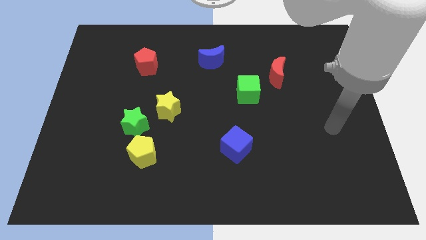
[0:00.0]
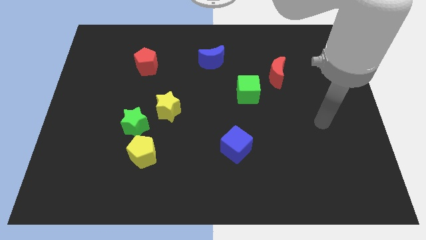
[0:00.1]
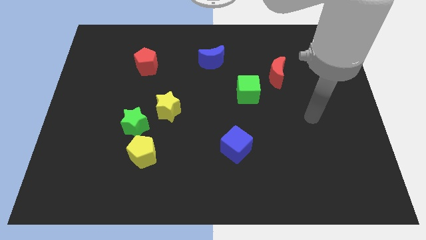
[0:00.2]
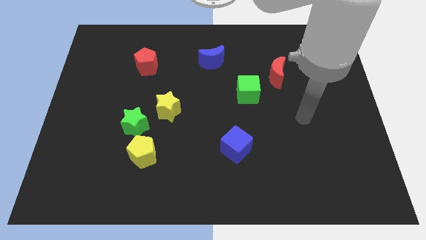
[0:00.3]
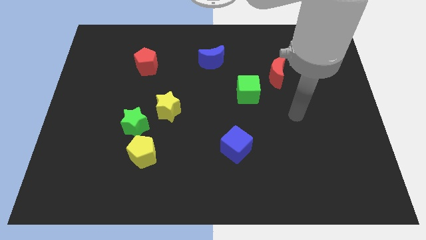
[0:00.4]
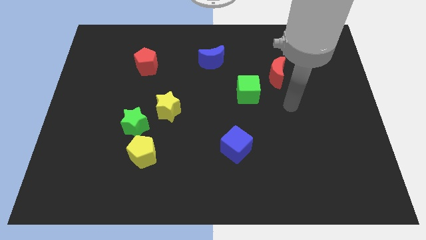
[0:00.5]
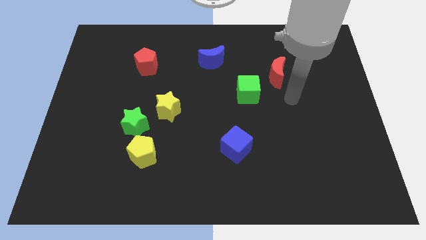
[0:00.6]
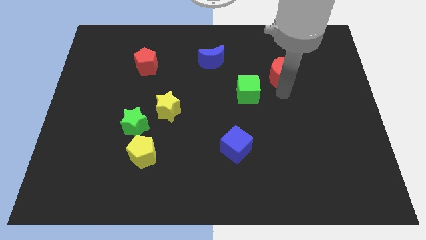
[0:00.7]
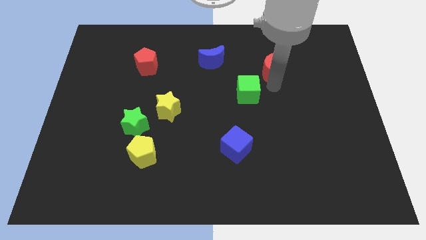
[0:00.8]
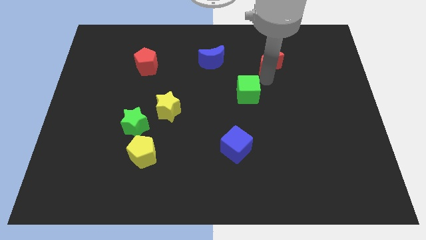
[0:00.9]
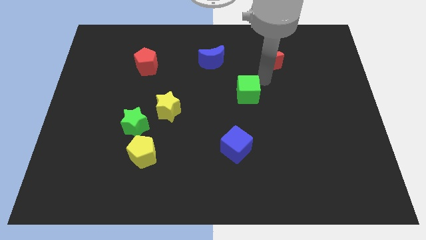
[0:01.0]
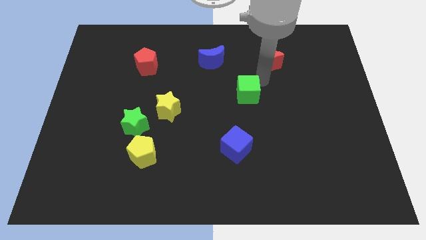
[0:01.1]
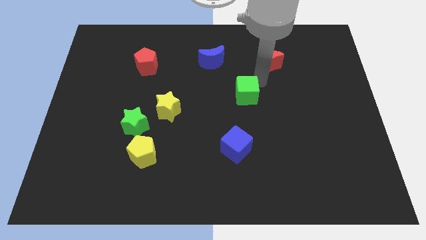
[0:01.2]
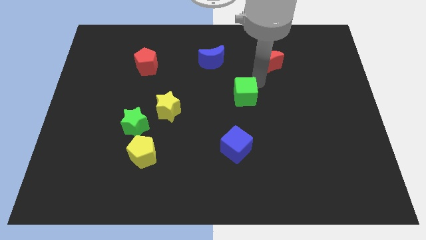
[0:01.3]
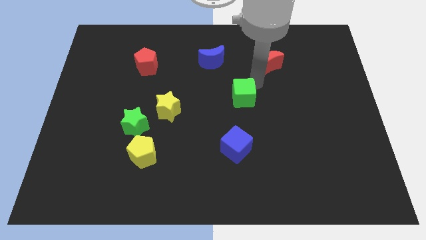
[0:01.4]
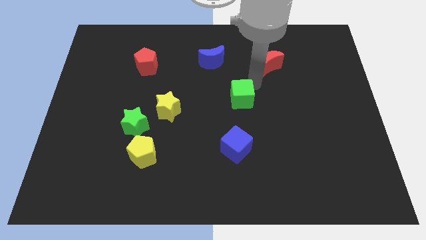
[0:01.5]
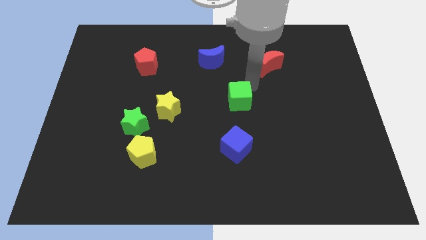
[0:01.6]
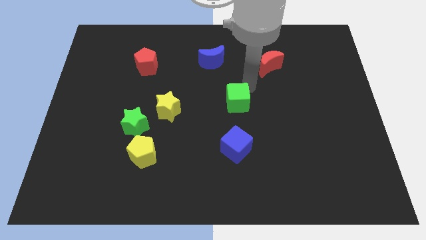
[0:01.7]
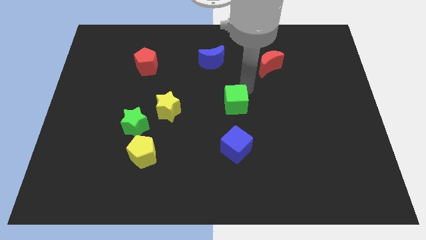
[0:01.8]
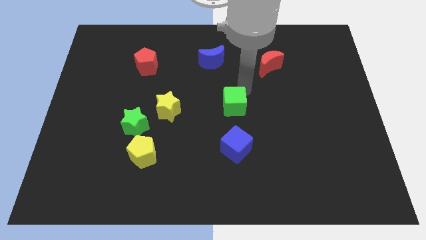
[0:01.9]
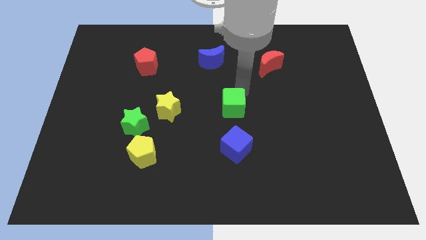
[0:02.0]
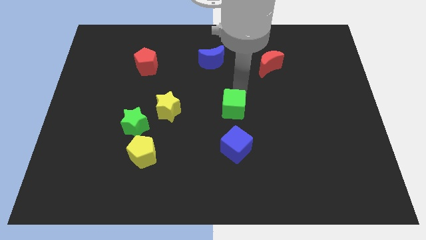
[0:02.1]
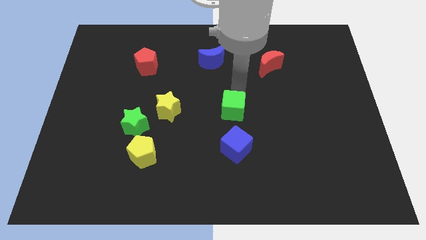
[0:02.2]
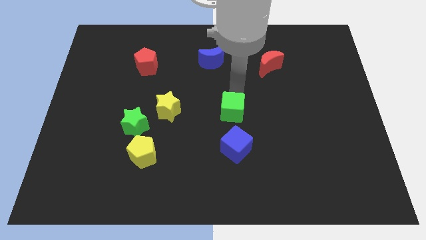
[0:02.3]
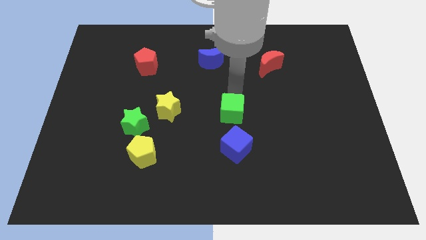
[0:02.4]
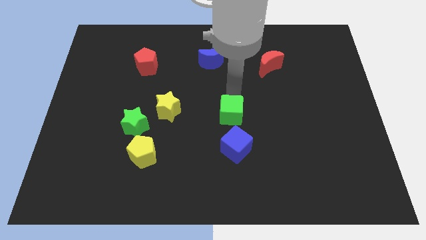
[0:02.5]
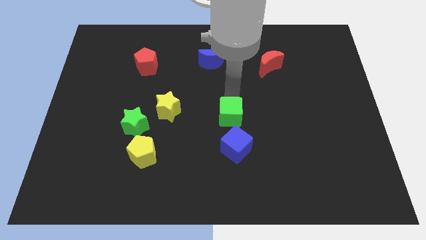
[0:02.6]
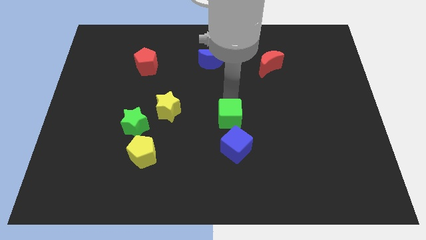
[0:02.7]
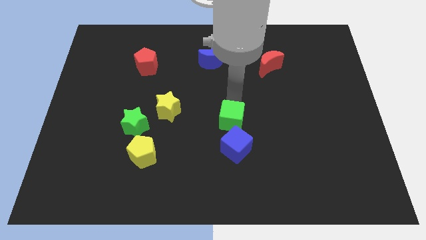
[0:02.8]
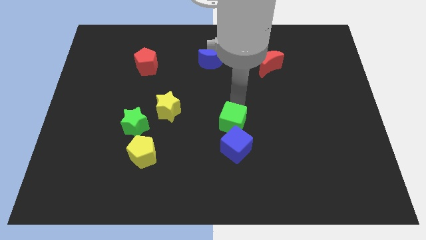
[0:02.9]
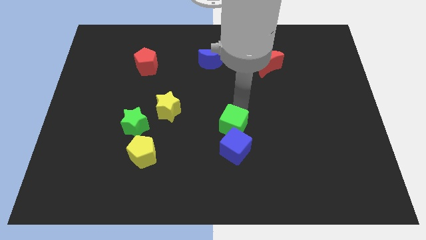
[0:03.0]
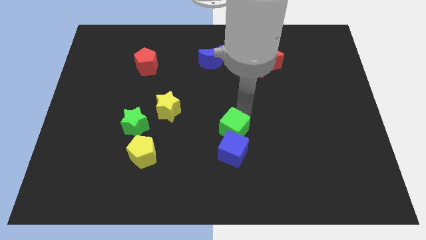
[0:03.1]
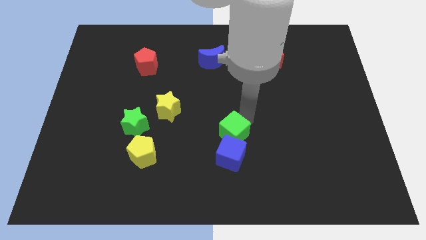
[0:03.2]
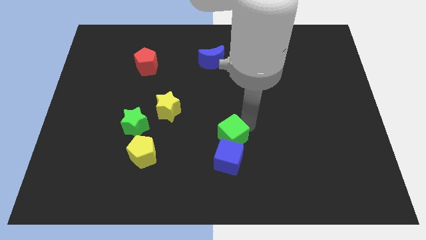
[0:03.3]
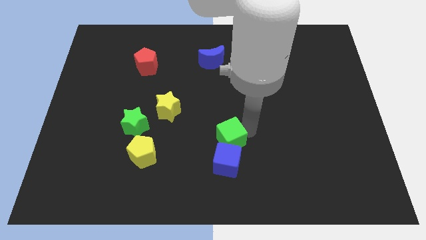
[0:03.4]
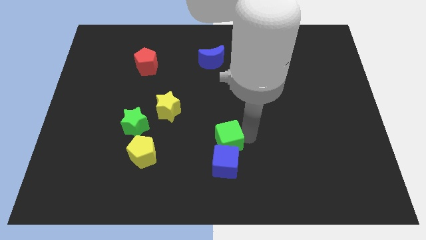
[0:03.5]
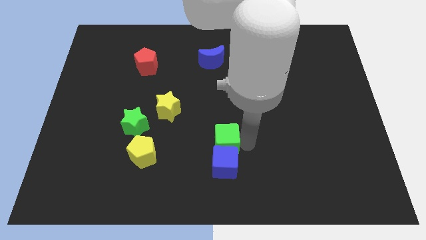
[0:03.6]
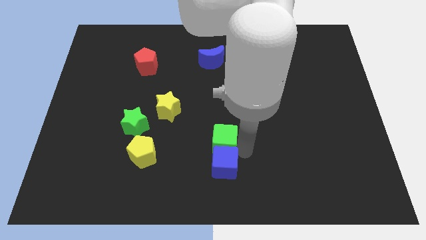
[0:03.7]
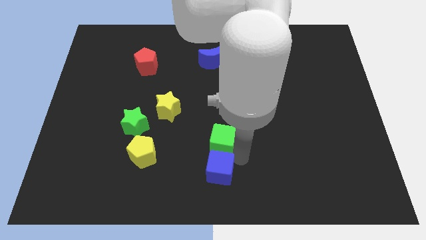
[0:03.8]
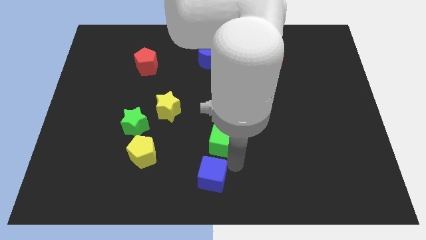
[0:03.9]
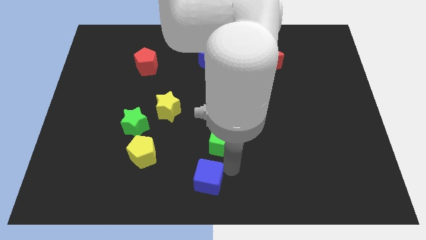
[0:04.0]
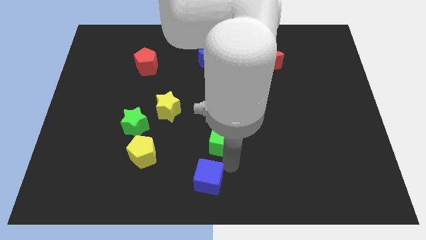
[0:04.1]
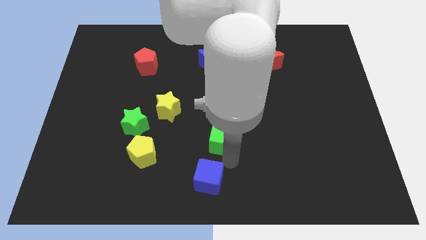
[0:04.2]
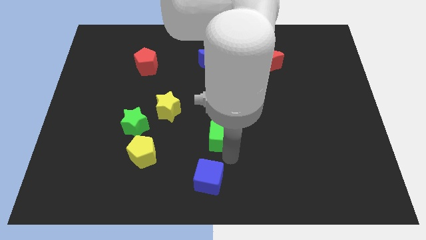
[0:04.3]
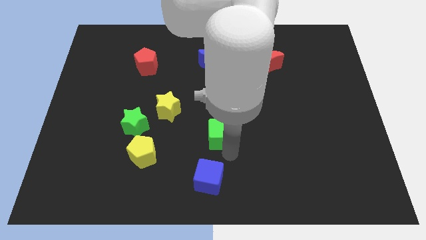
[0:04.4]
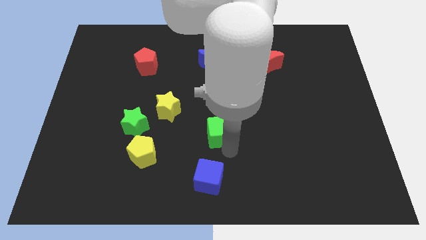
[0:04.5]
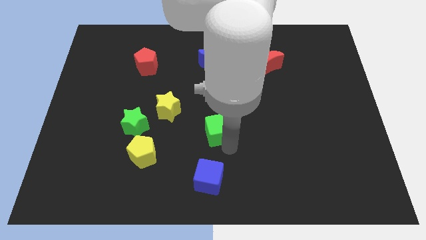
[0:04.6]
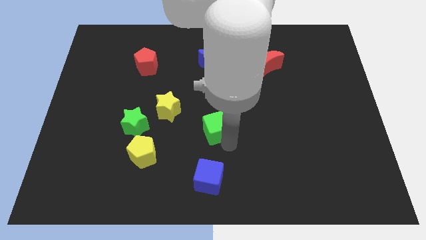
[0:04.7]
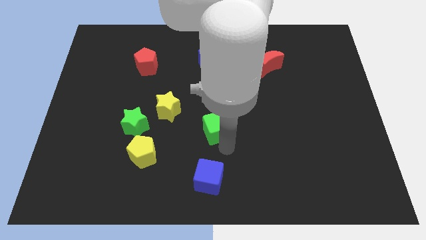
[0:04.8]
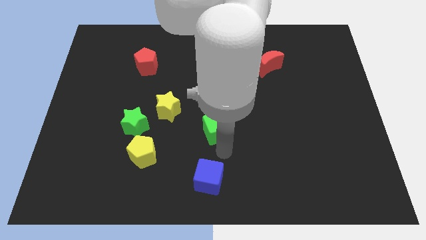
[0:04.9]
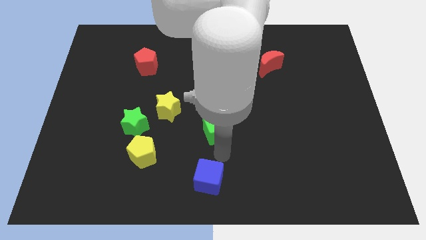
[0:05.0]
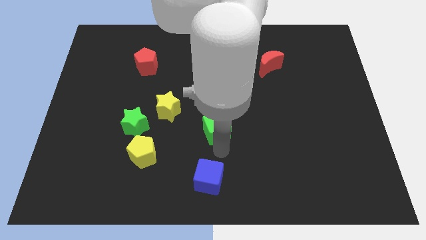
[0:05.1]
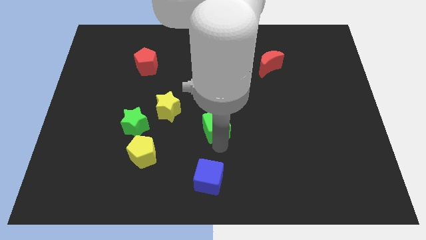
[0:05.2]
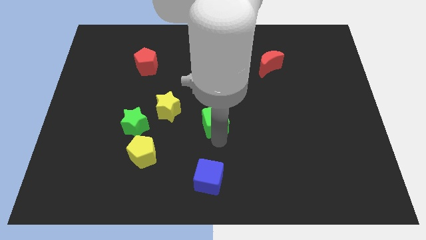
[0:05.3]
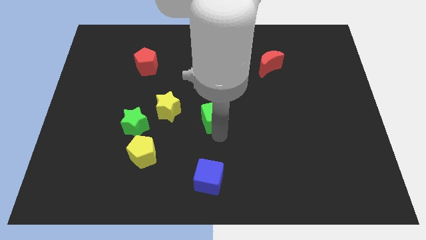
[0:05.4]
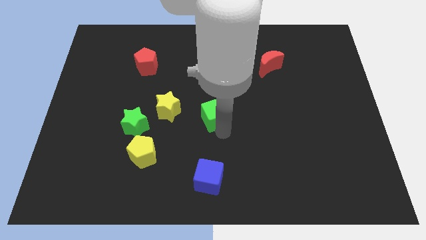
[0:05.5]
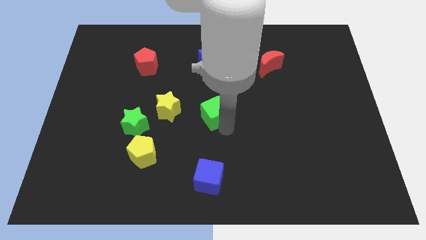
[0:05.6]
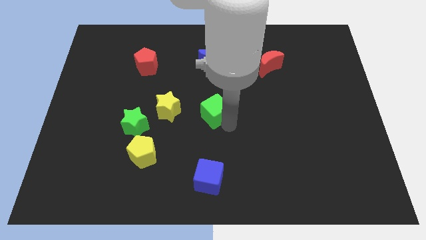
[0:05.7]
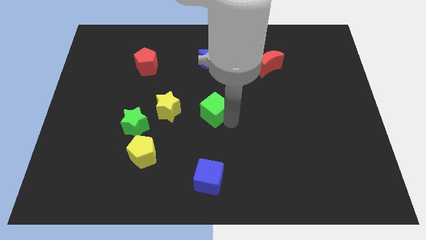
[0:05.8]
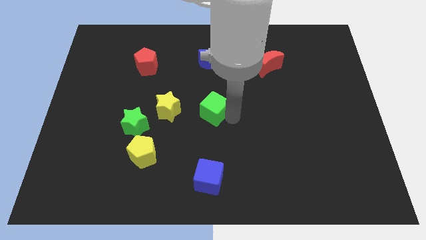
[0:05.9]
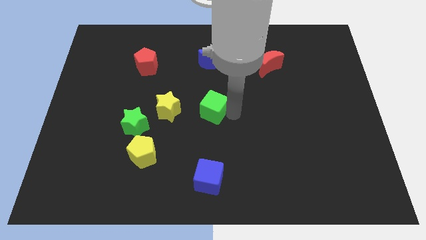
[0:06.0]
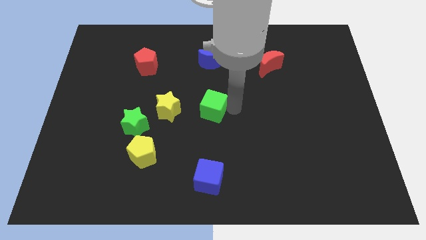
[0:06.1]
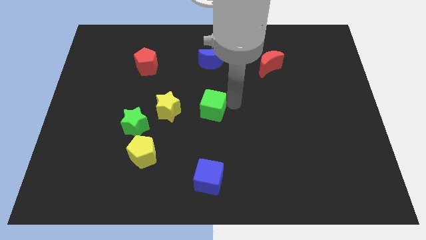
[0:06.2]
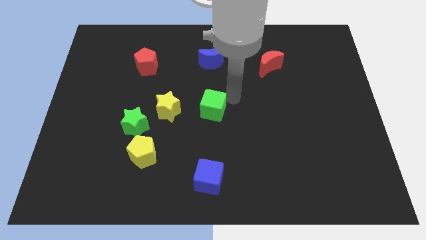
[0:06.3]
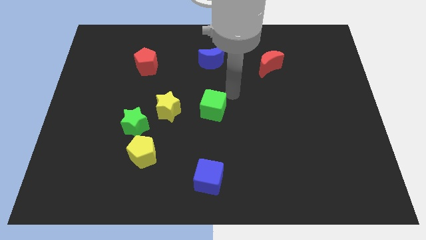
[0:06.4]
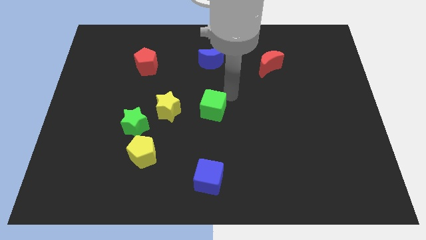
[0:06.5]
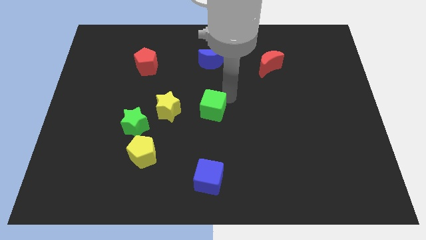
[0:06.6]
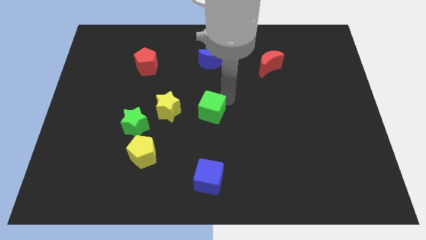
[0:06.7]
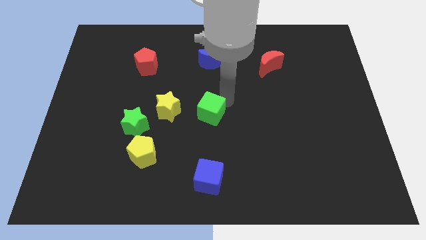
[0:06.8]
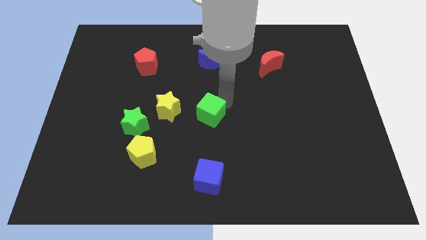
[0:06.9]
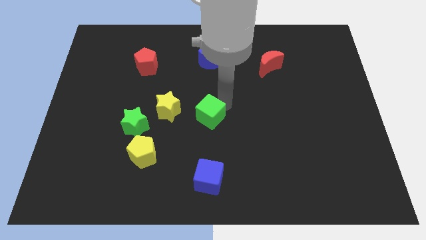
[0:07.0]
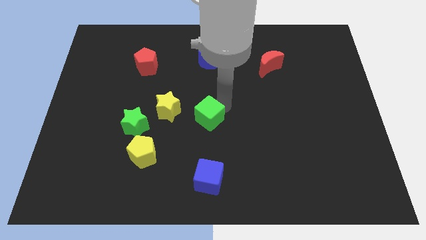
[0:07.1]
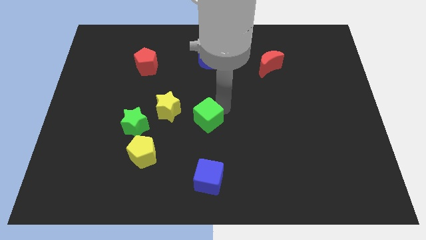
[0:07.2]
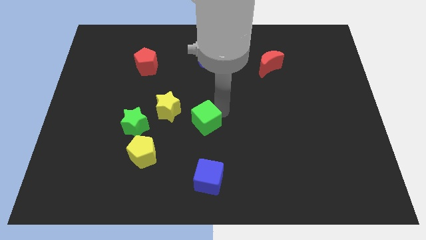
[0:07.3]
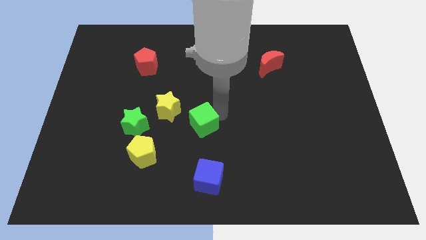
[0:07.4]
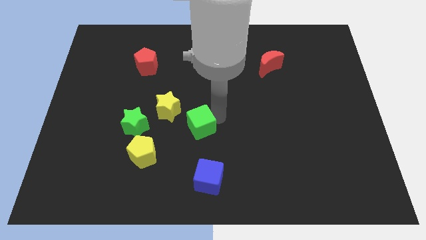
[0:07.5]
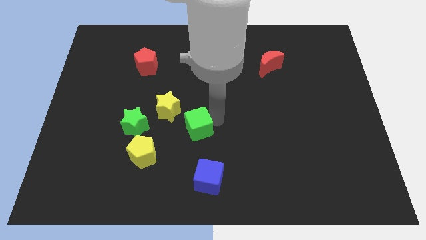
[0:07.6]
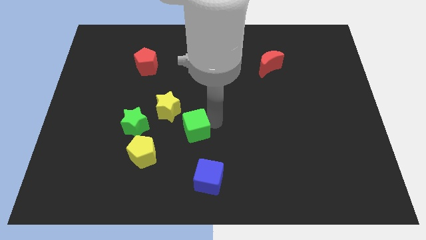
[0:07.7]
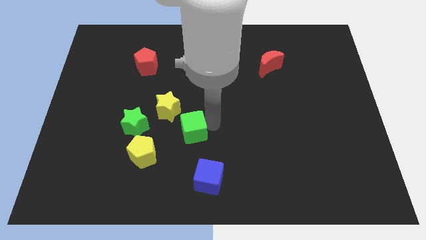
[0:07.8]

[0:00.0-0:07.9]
slide the green cube to the top right of the yellow pentagon

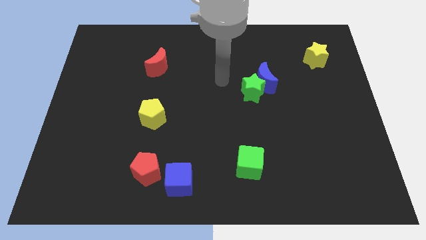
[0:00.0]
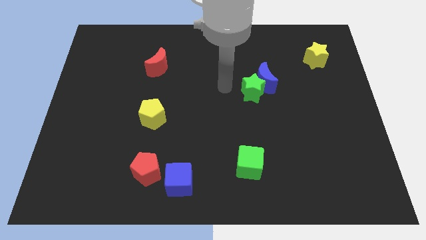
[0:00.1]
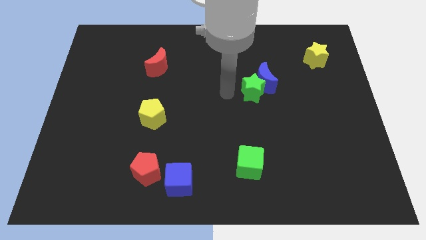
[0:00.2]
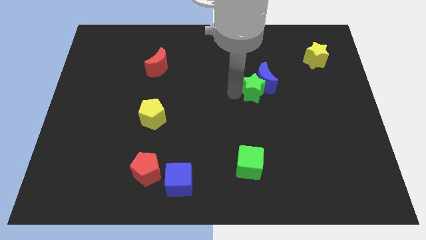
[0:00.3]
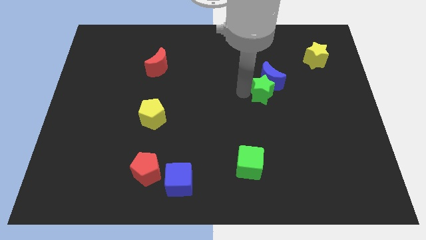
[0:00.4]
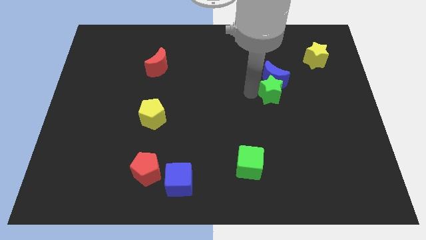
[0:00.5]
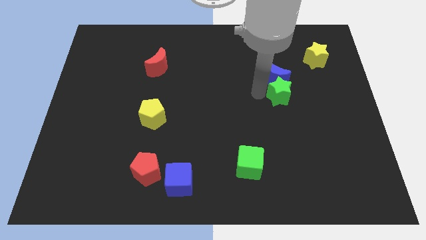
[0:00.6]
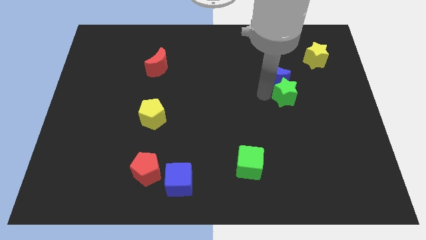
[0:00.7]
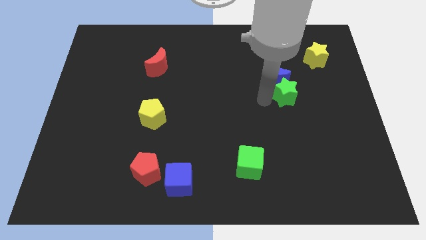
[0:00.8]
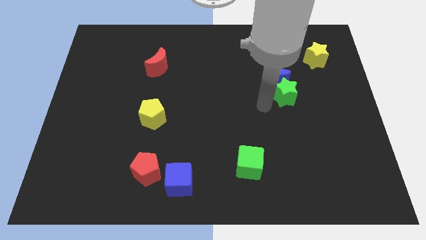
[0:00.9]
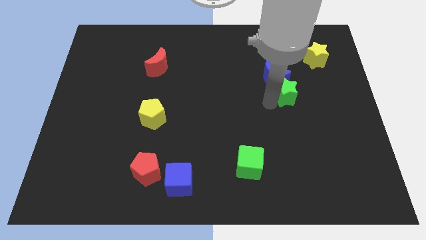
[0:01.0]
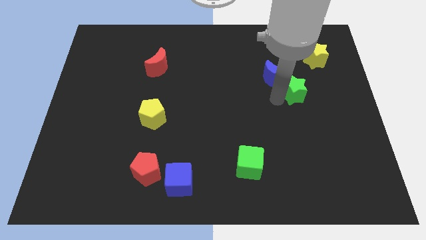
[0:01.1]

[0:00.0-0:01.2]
slide the green star right of the blue moon
